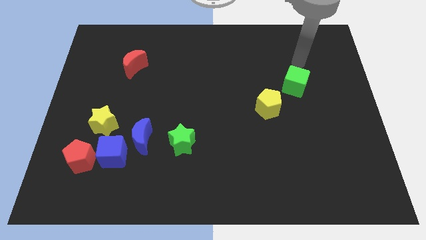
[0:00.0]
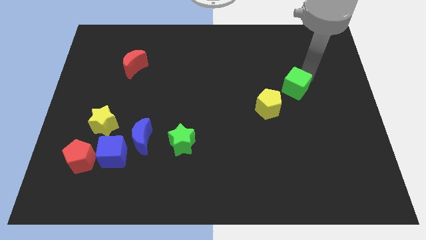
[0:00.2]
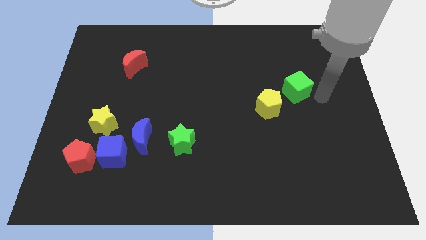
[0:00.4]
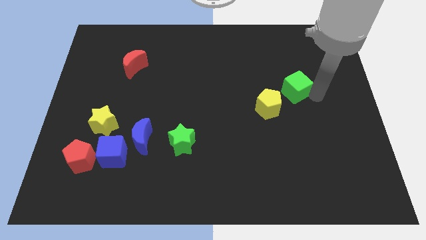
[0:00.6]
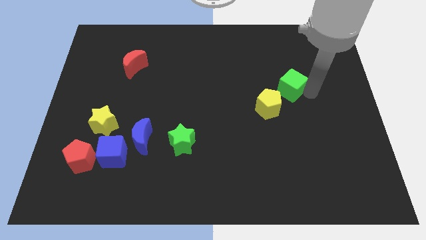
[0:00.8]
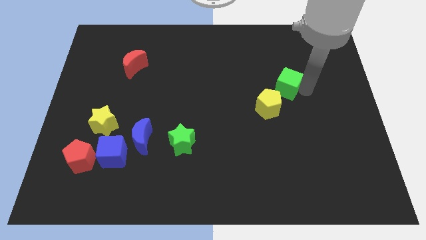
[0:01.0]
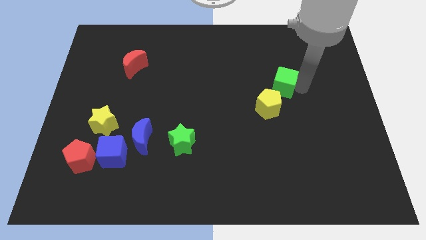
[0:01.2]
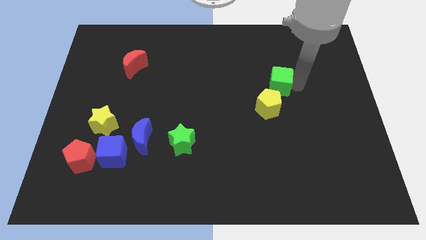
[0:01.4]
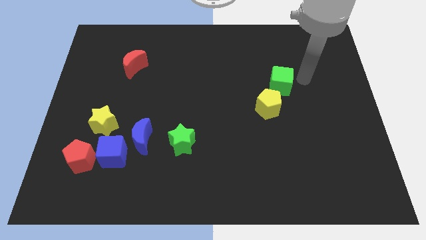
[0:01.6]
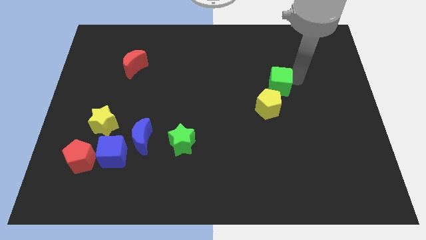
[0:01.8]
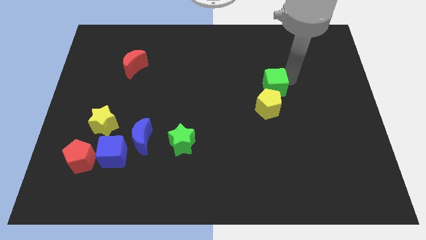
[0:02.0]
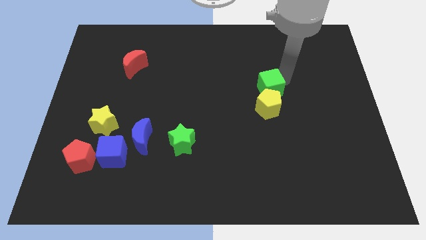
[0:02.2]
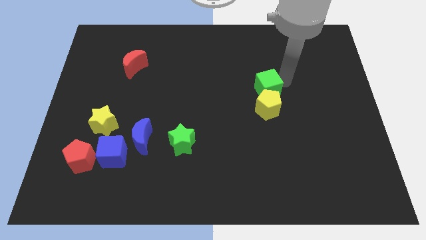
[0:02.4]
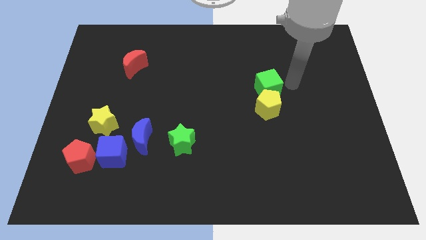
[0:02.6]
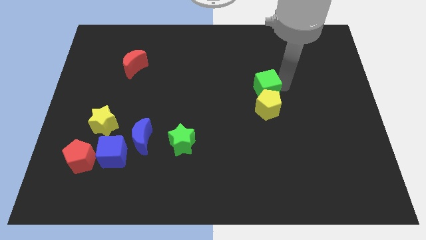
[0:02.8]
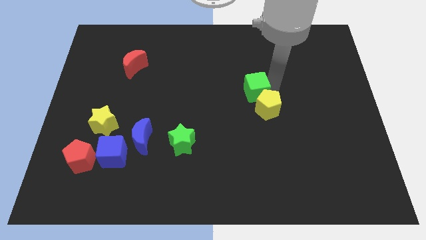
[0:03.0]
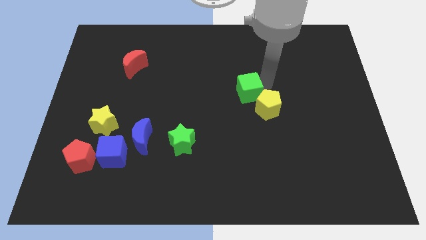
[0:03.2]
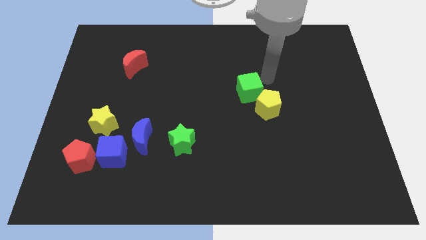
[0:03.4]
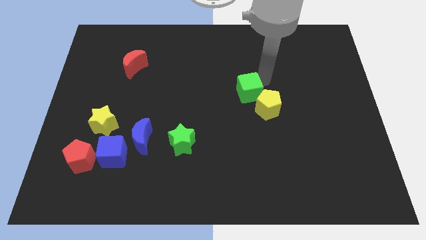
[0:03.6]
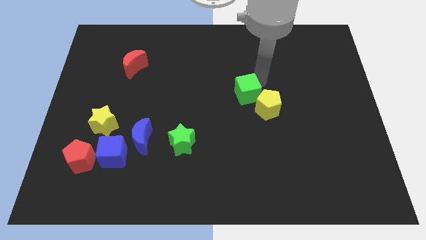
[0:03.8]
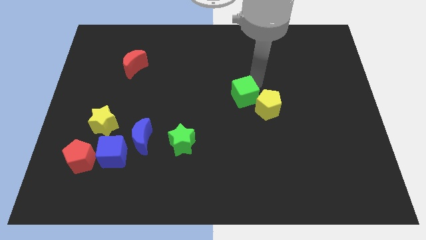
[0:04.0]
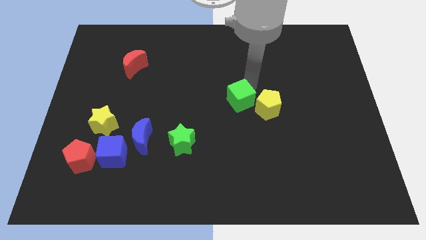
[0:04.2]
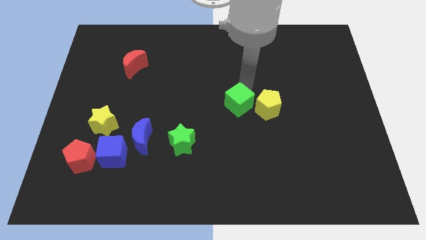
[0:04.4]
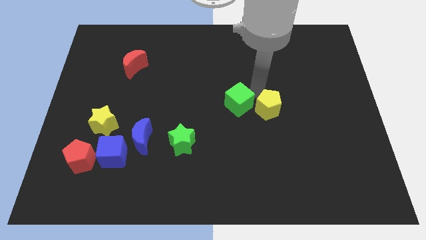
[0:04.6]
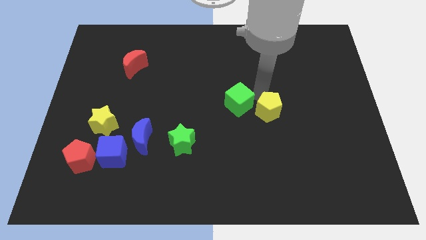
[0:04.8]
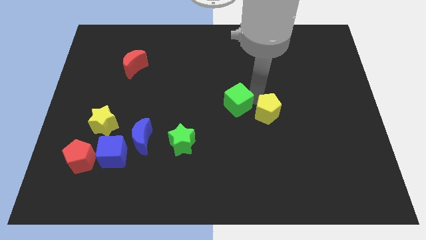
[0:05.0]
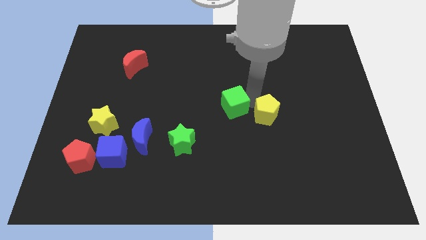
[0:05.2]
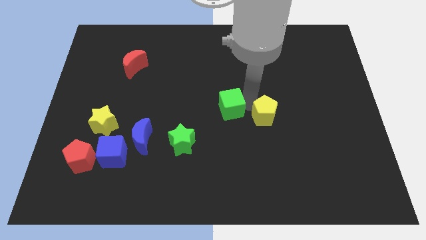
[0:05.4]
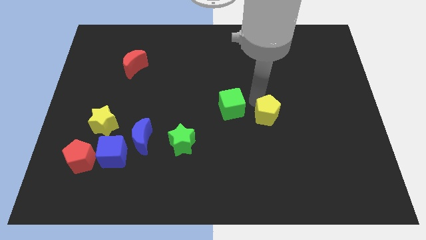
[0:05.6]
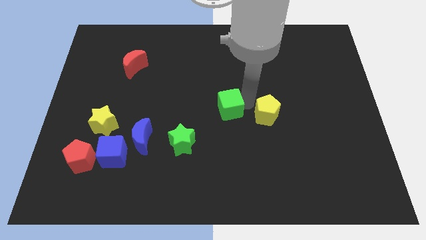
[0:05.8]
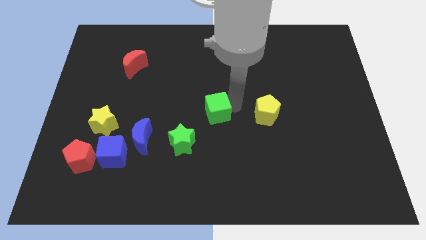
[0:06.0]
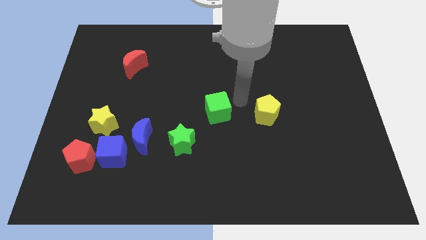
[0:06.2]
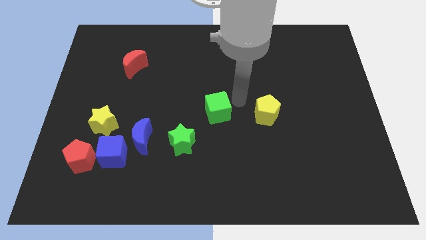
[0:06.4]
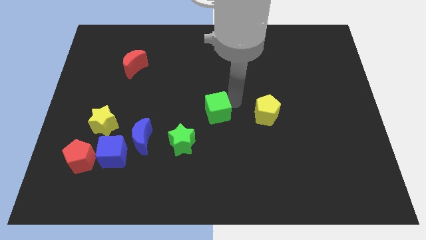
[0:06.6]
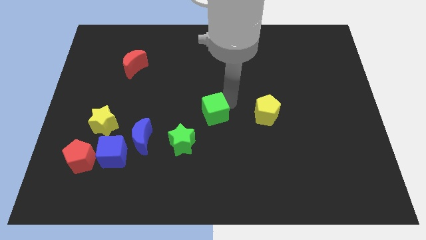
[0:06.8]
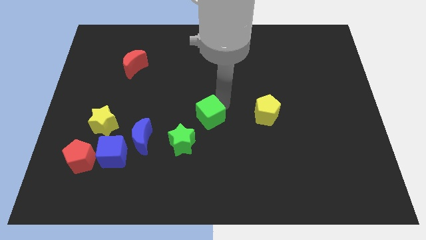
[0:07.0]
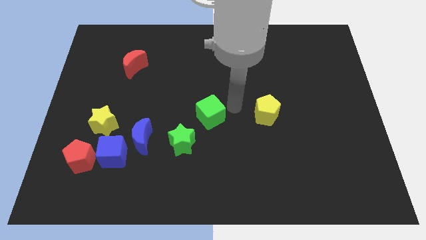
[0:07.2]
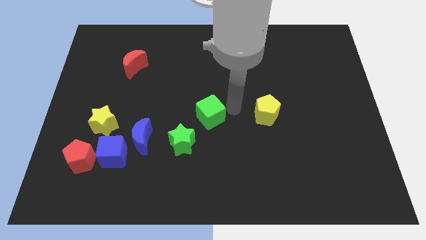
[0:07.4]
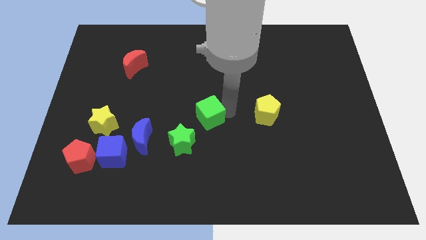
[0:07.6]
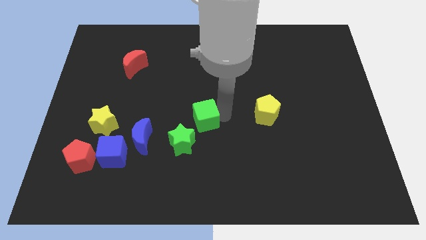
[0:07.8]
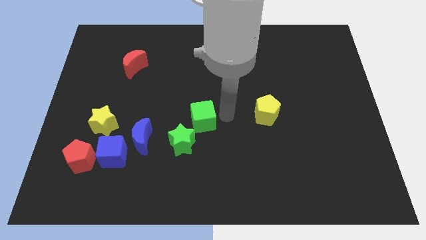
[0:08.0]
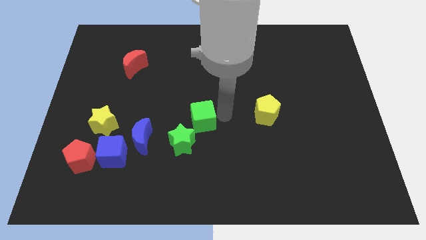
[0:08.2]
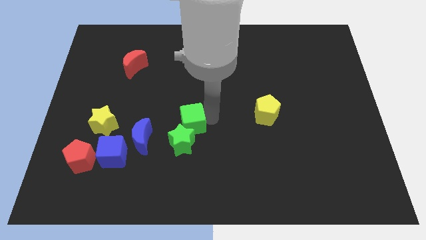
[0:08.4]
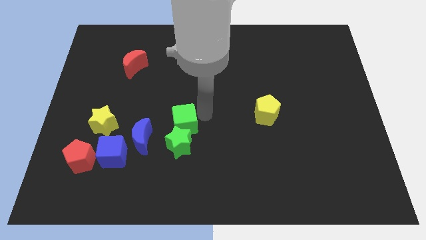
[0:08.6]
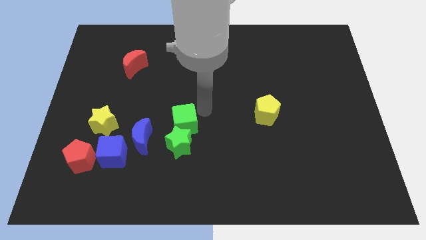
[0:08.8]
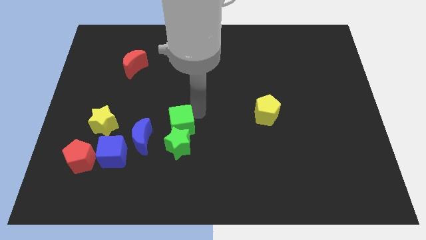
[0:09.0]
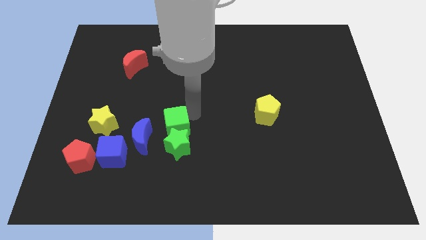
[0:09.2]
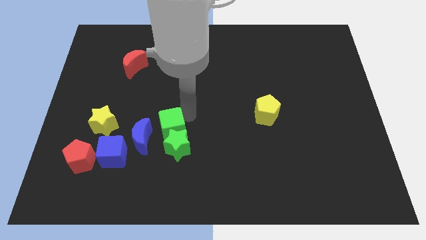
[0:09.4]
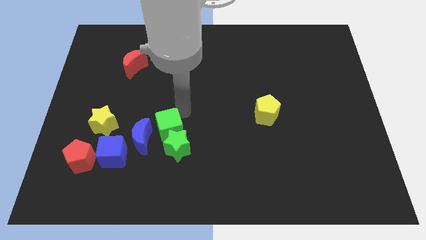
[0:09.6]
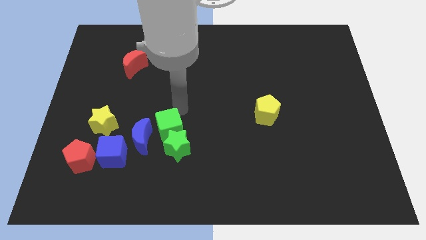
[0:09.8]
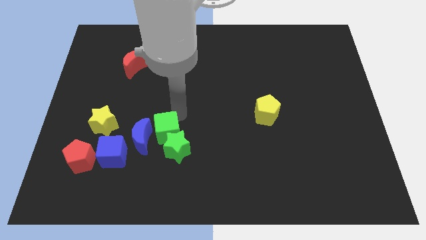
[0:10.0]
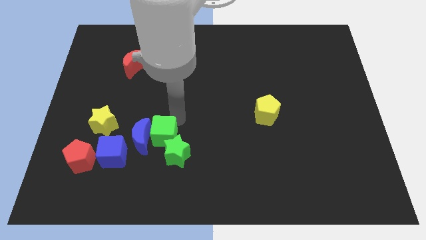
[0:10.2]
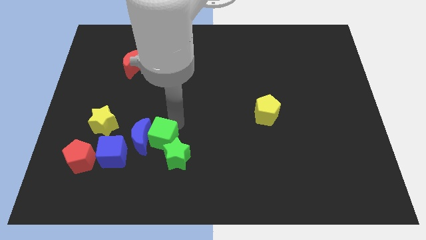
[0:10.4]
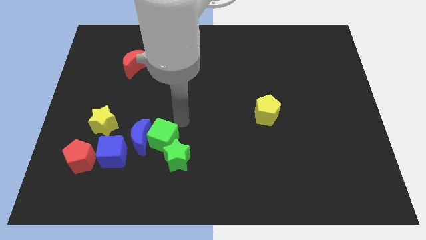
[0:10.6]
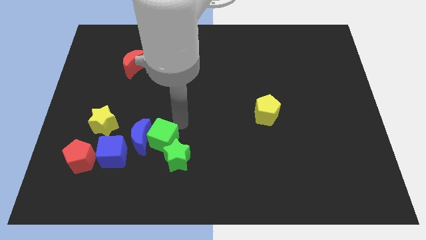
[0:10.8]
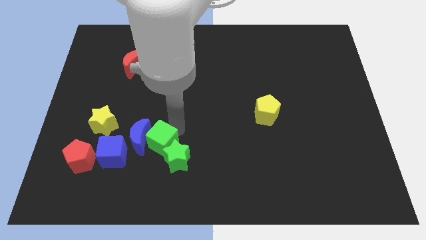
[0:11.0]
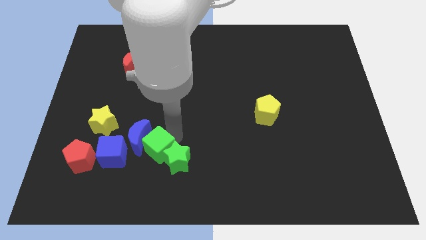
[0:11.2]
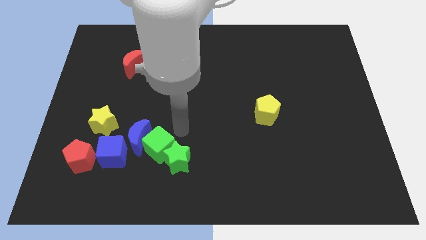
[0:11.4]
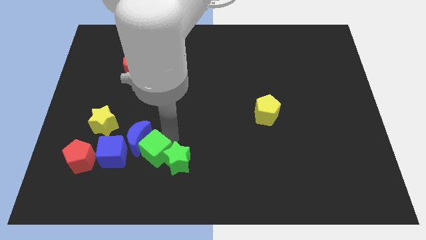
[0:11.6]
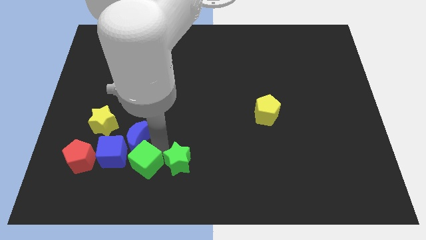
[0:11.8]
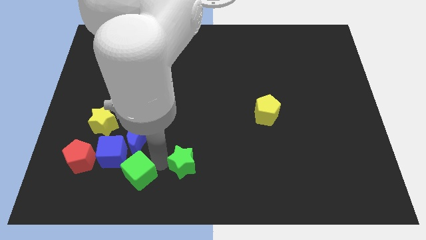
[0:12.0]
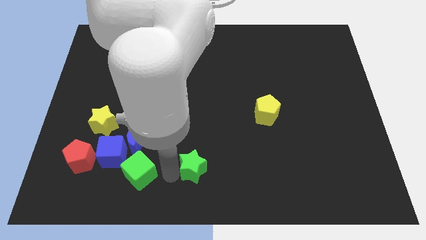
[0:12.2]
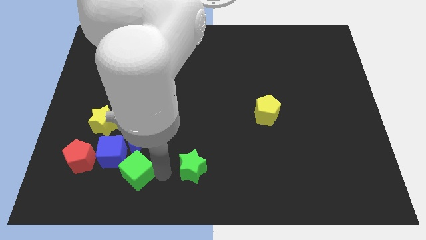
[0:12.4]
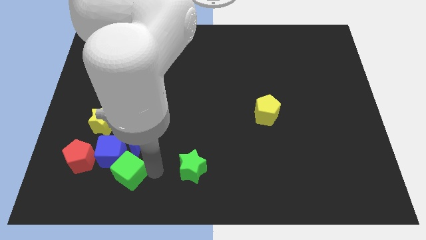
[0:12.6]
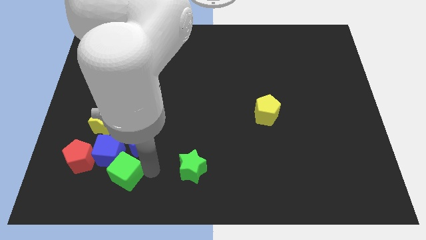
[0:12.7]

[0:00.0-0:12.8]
slide the green cube diagonally down and to the left of the blue moon

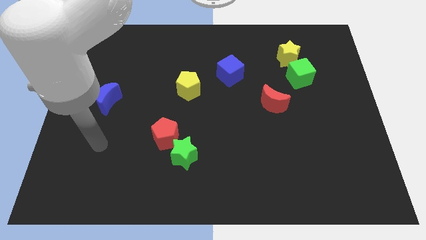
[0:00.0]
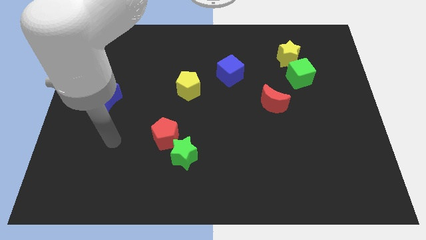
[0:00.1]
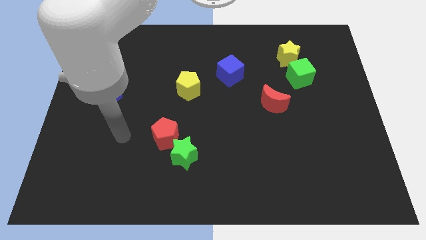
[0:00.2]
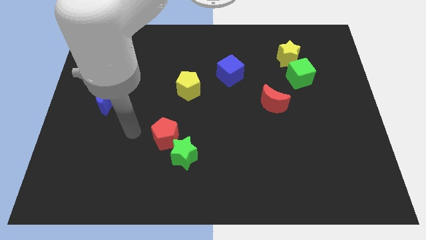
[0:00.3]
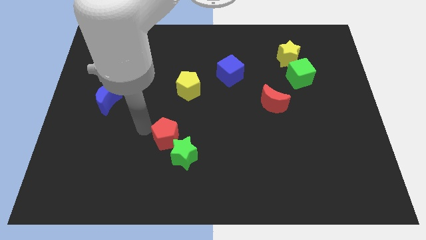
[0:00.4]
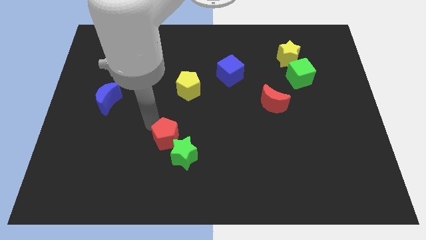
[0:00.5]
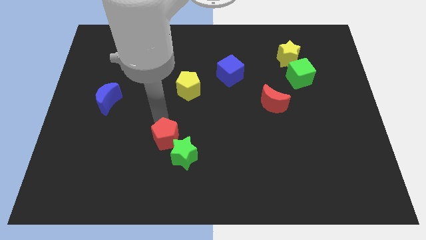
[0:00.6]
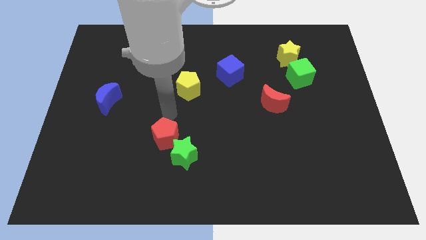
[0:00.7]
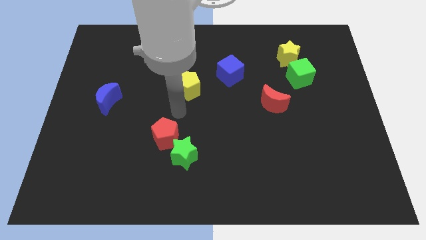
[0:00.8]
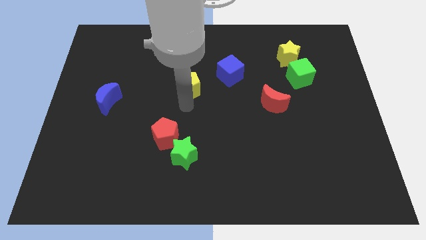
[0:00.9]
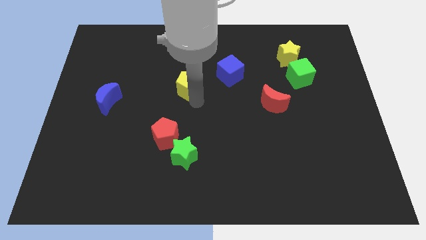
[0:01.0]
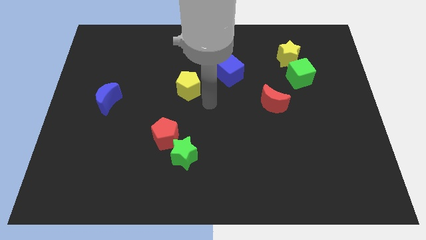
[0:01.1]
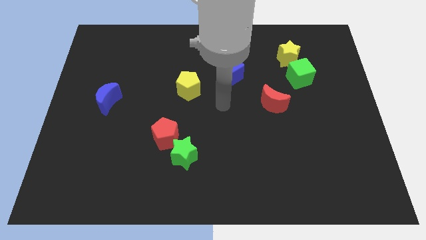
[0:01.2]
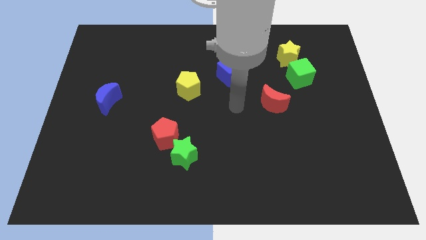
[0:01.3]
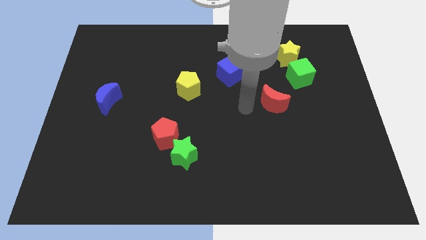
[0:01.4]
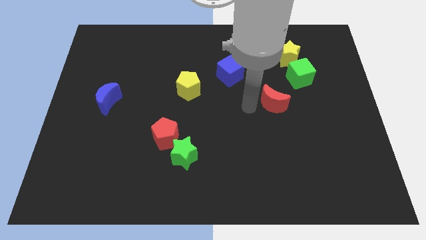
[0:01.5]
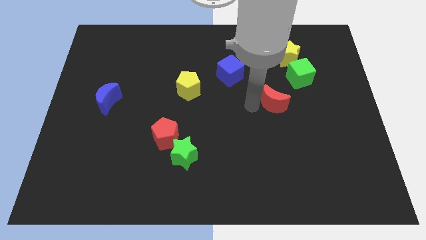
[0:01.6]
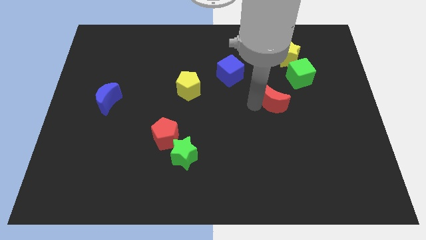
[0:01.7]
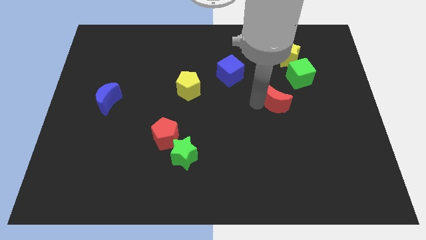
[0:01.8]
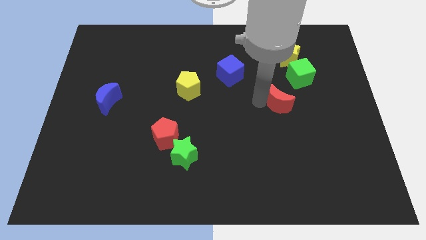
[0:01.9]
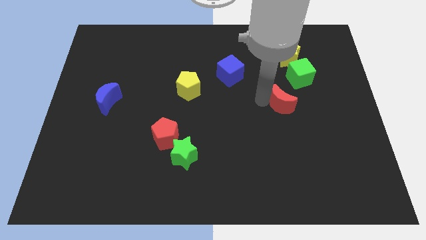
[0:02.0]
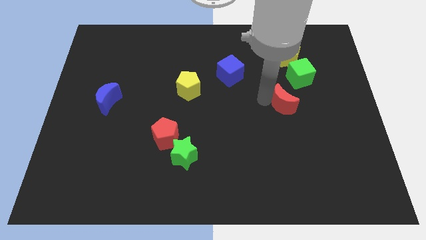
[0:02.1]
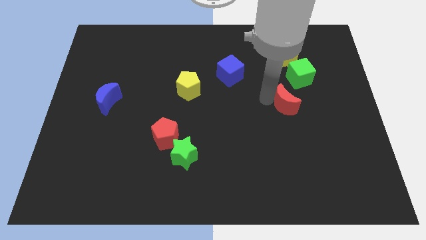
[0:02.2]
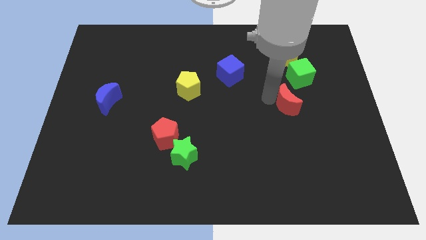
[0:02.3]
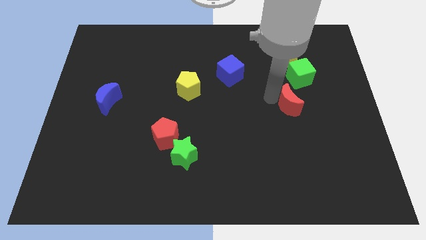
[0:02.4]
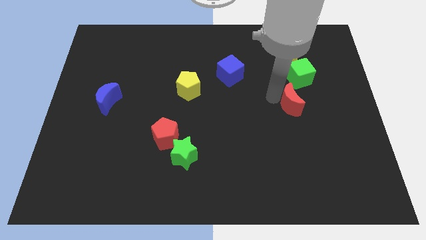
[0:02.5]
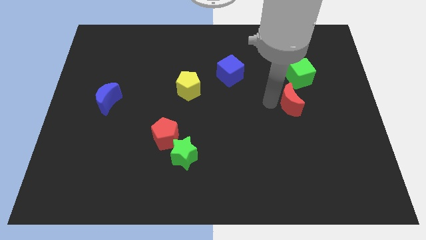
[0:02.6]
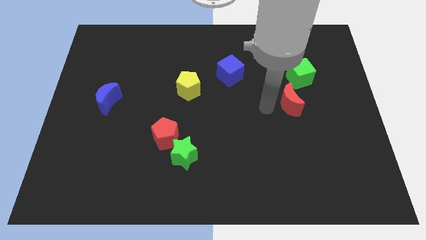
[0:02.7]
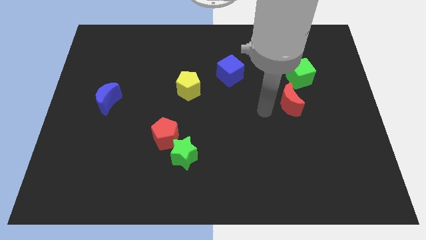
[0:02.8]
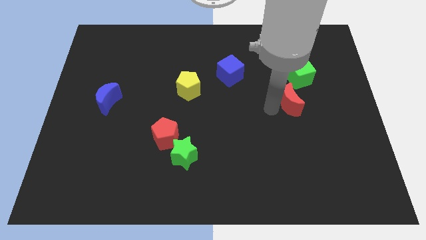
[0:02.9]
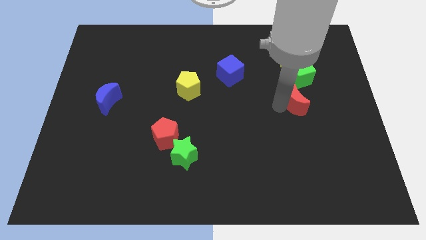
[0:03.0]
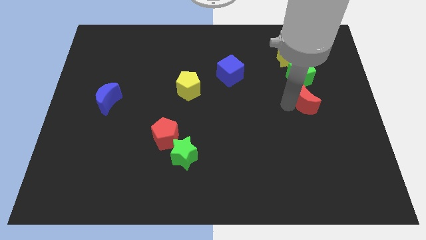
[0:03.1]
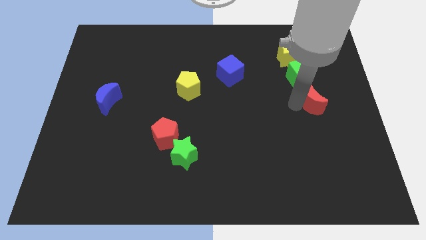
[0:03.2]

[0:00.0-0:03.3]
put the red moon to the bottom right of the green cube
